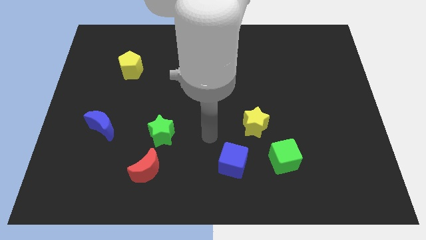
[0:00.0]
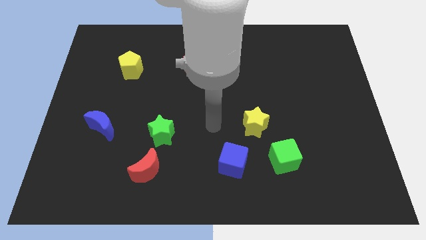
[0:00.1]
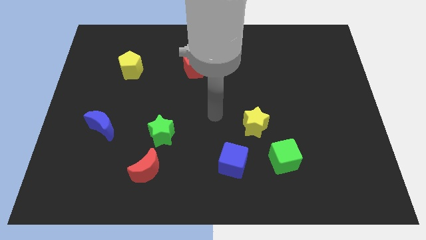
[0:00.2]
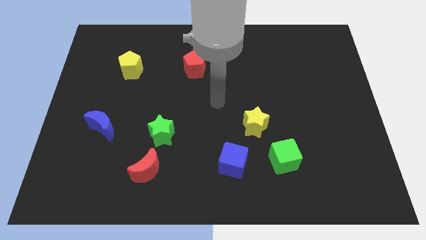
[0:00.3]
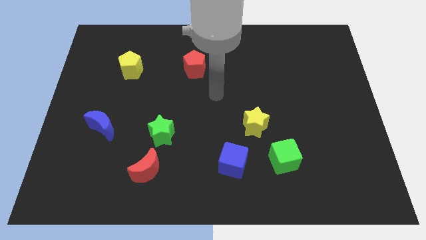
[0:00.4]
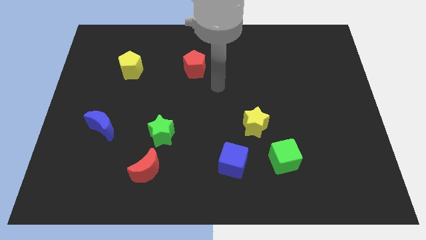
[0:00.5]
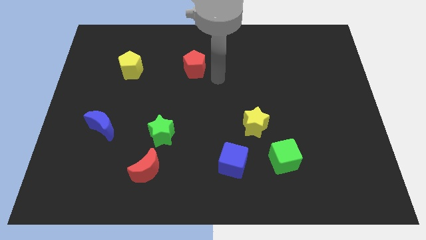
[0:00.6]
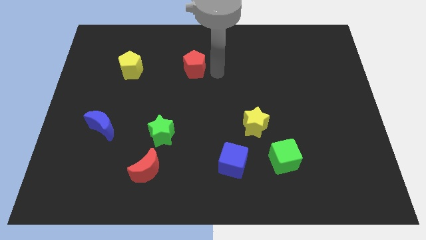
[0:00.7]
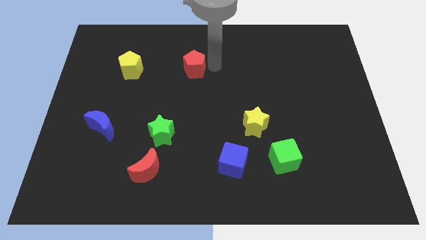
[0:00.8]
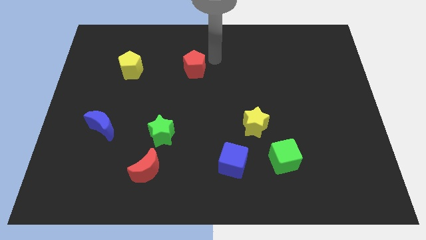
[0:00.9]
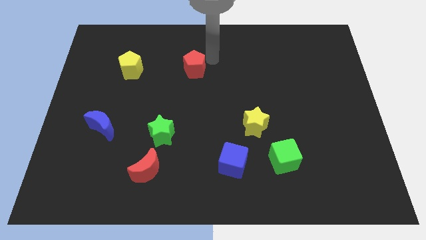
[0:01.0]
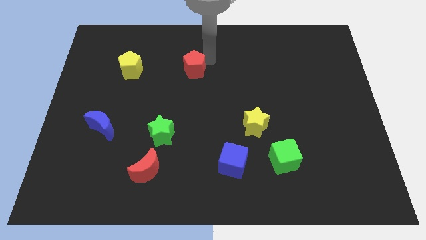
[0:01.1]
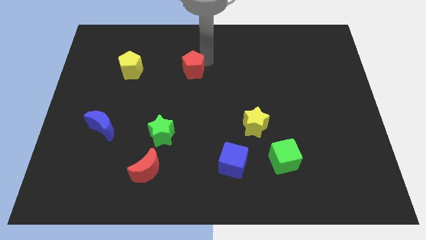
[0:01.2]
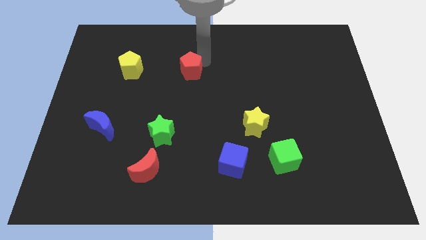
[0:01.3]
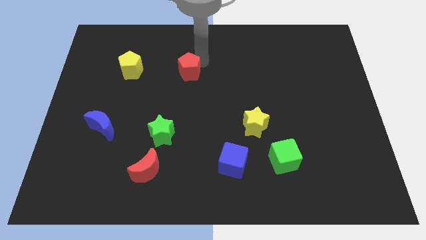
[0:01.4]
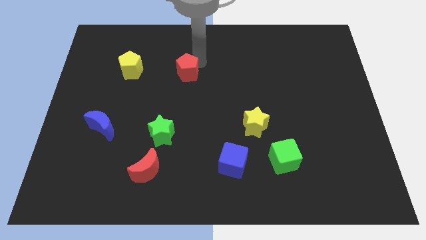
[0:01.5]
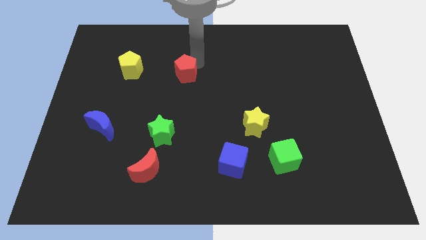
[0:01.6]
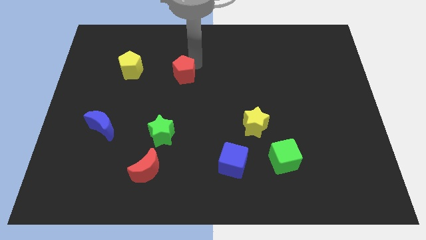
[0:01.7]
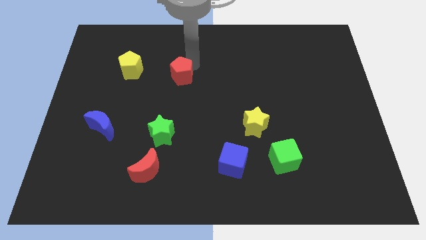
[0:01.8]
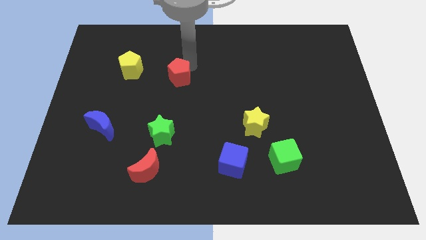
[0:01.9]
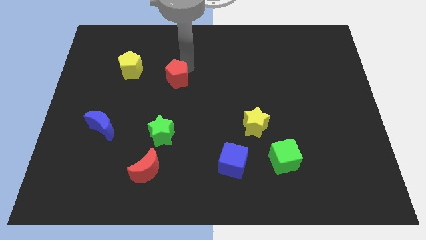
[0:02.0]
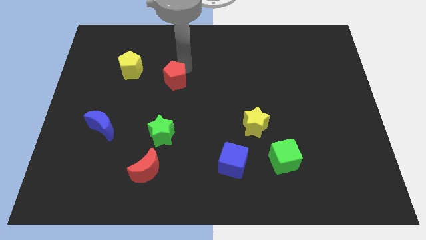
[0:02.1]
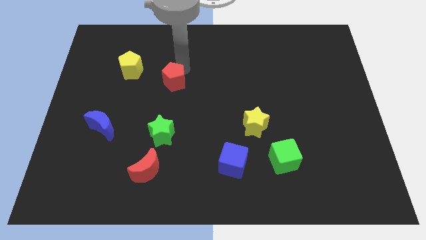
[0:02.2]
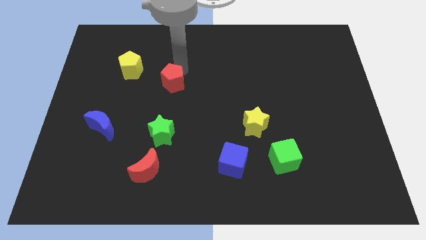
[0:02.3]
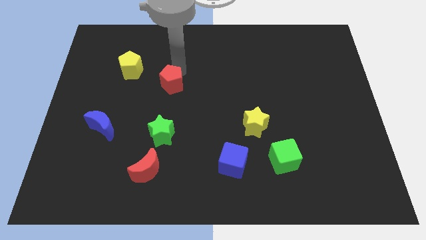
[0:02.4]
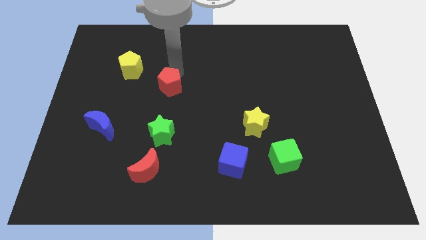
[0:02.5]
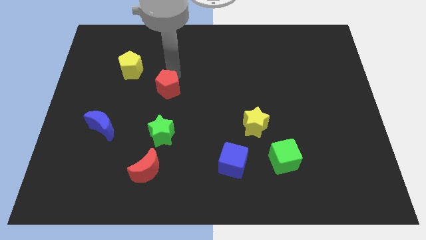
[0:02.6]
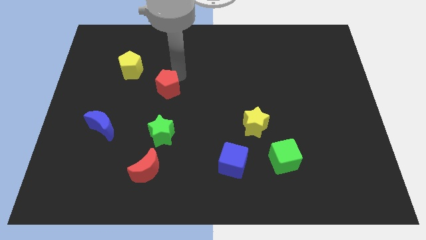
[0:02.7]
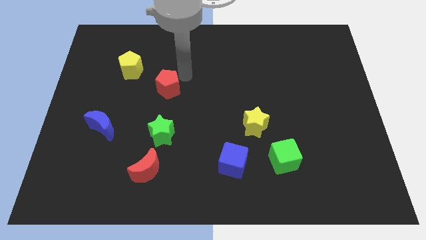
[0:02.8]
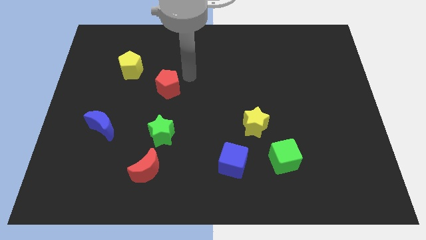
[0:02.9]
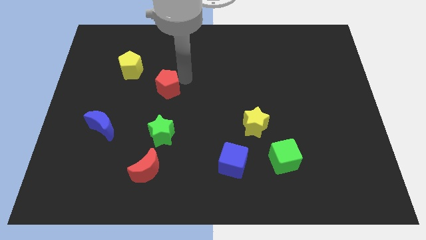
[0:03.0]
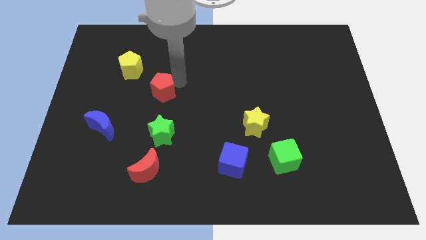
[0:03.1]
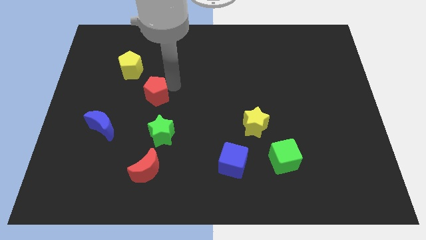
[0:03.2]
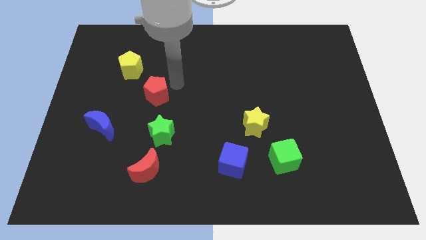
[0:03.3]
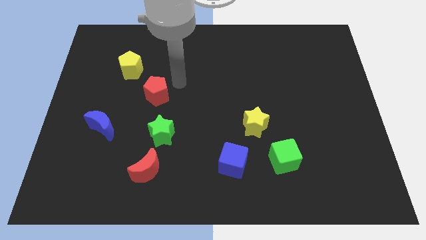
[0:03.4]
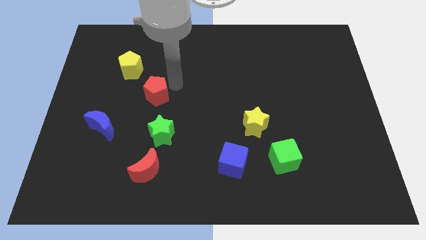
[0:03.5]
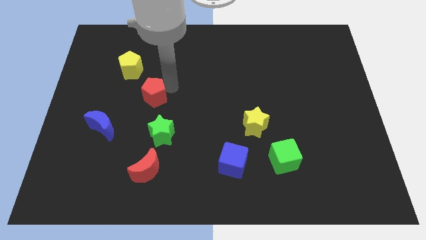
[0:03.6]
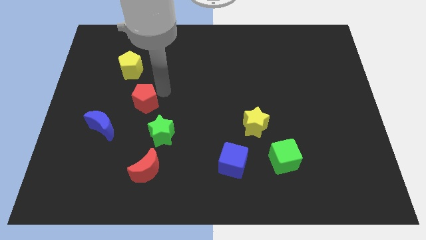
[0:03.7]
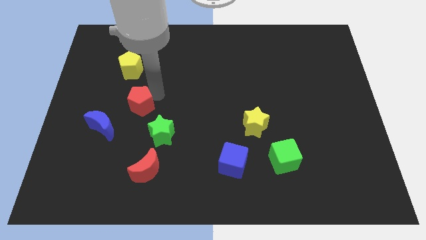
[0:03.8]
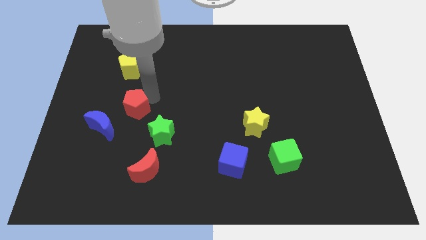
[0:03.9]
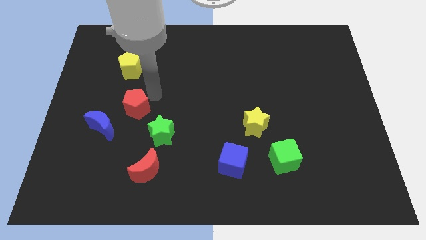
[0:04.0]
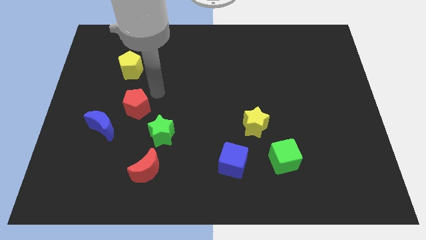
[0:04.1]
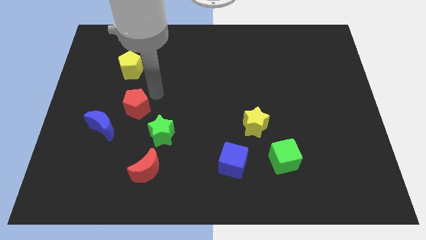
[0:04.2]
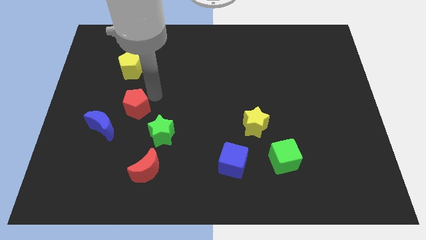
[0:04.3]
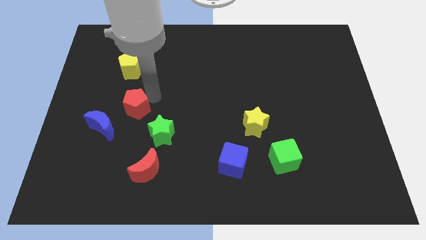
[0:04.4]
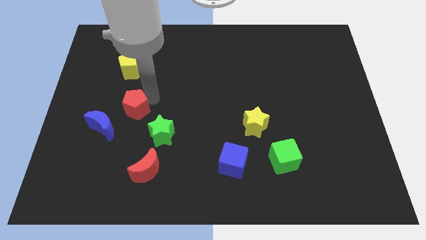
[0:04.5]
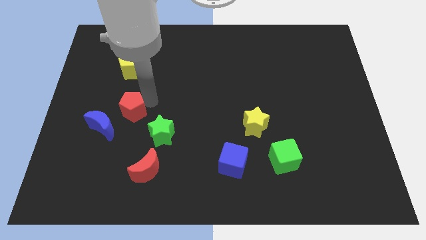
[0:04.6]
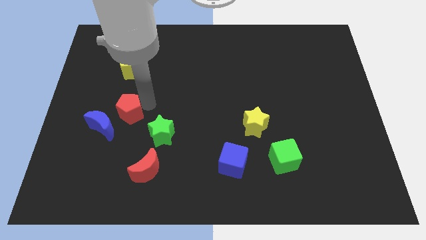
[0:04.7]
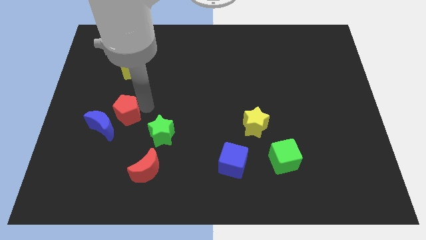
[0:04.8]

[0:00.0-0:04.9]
slide the red pentagon towards the blue moon

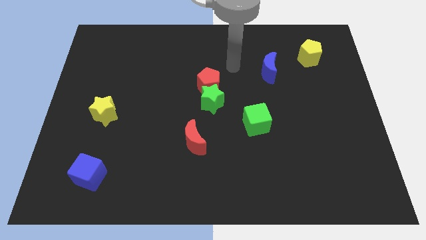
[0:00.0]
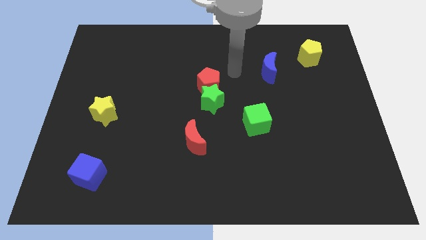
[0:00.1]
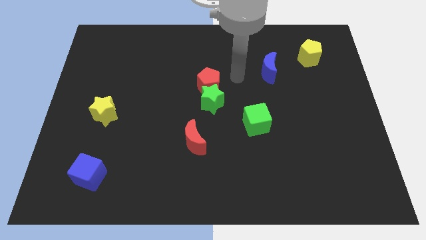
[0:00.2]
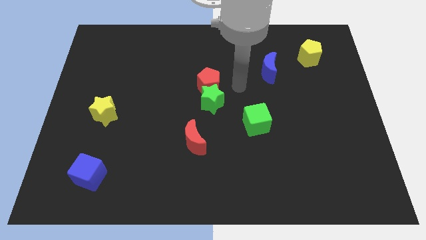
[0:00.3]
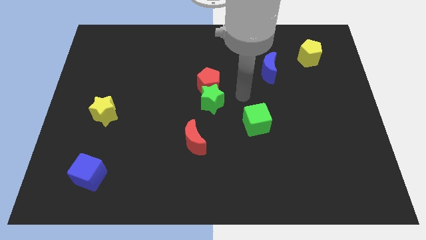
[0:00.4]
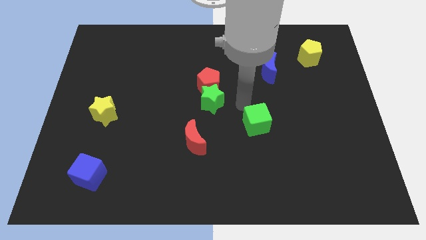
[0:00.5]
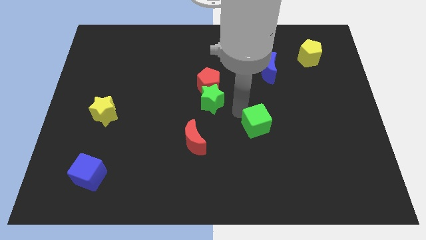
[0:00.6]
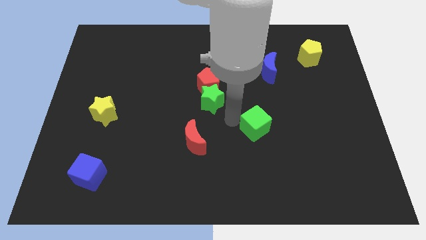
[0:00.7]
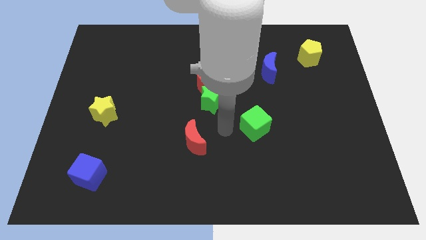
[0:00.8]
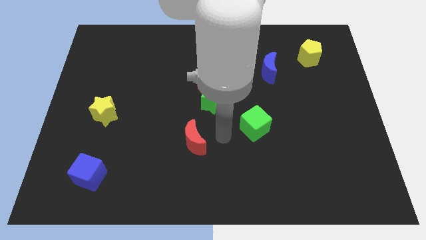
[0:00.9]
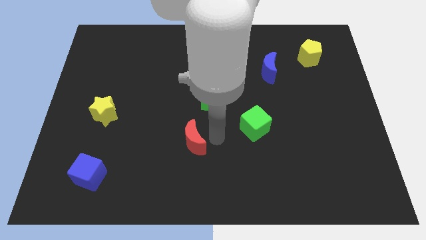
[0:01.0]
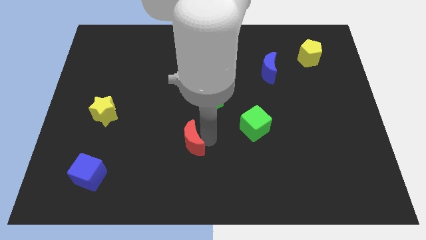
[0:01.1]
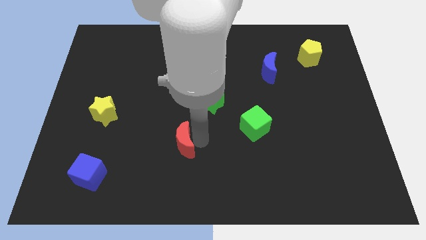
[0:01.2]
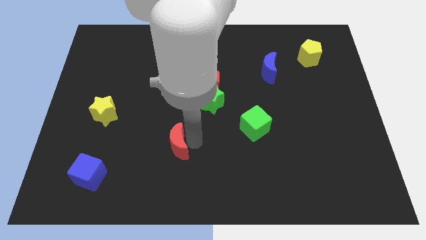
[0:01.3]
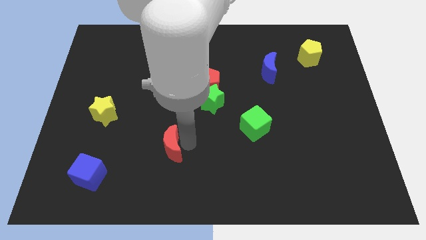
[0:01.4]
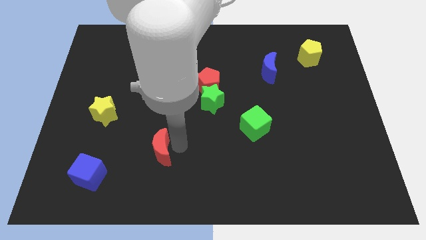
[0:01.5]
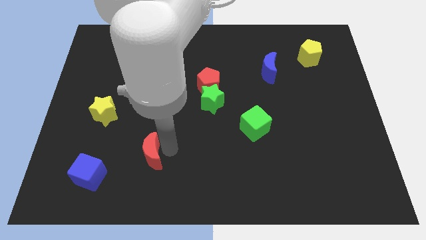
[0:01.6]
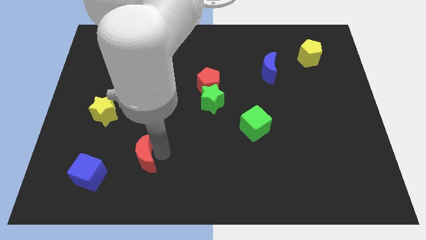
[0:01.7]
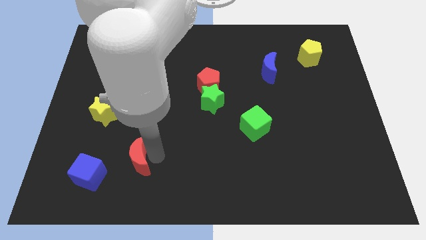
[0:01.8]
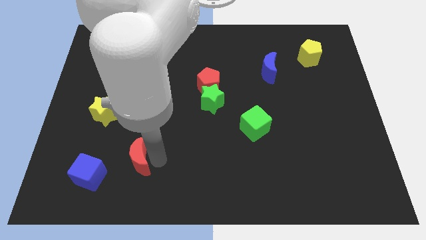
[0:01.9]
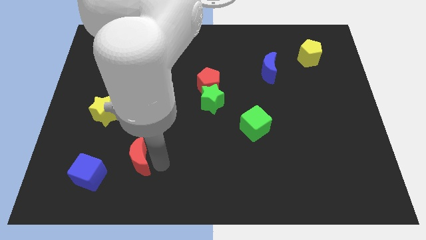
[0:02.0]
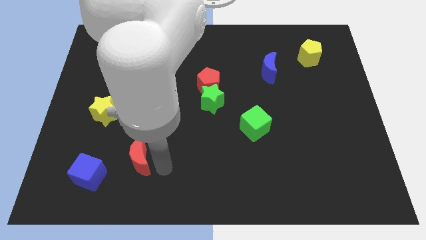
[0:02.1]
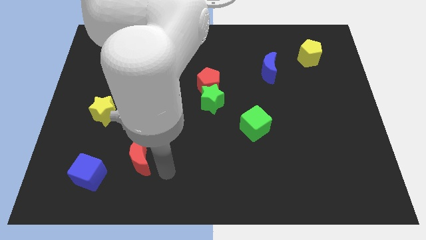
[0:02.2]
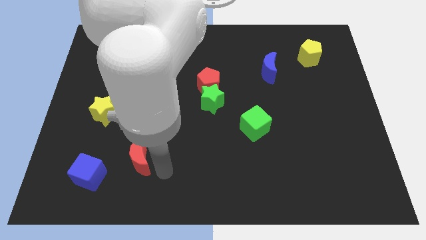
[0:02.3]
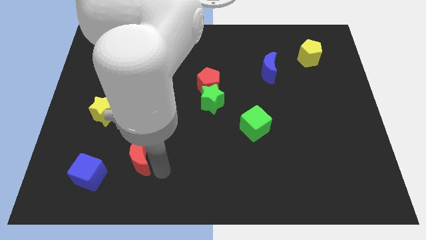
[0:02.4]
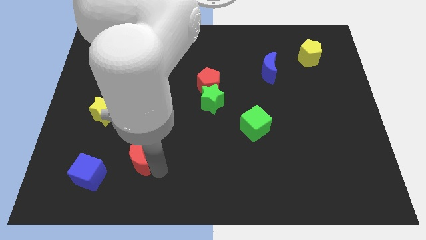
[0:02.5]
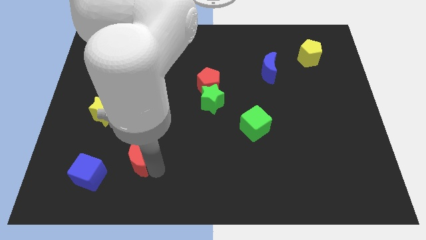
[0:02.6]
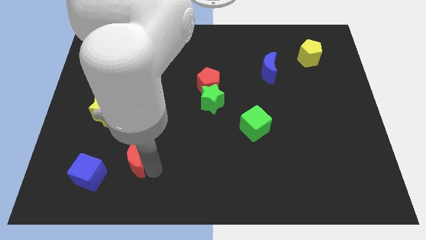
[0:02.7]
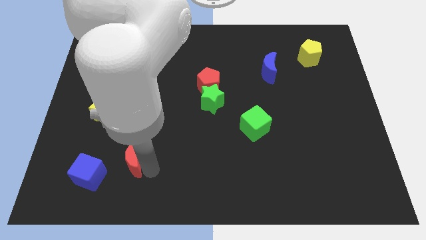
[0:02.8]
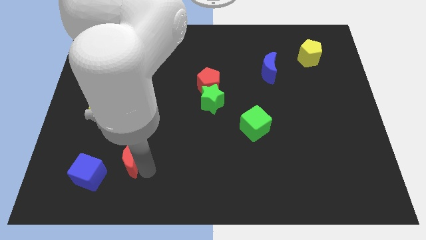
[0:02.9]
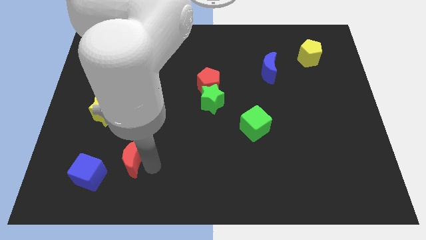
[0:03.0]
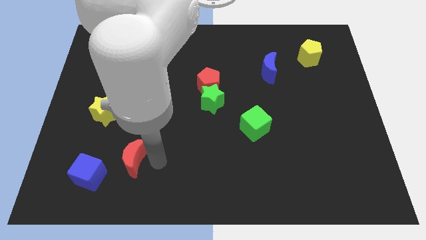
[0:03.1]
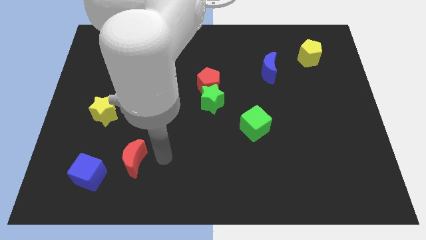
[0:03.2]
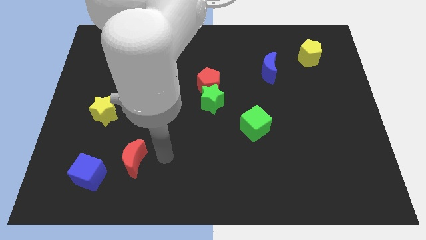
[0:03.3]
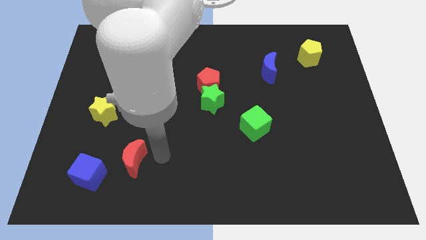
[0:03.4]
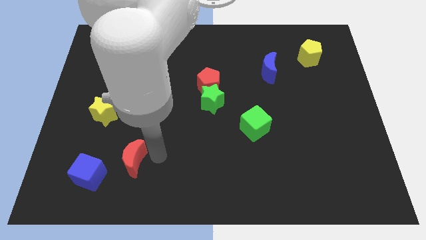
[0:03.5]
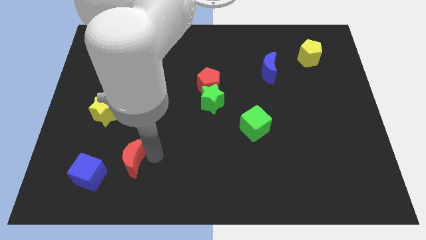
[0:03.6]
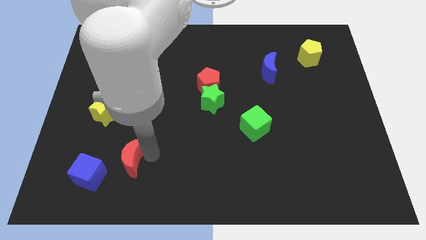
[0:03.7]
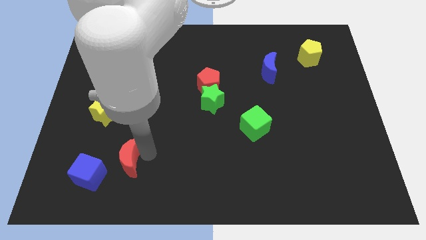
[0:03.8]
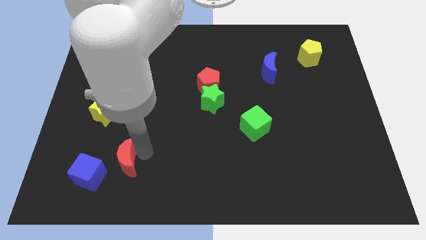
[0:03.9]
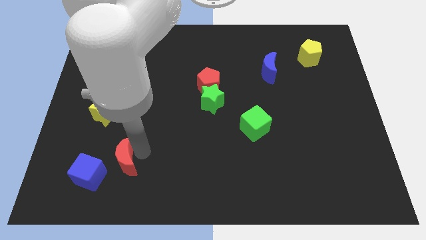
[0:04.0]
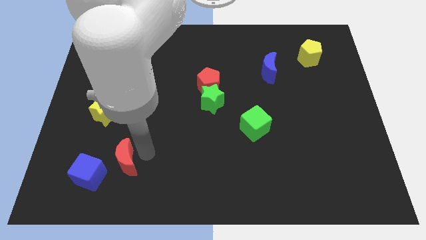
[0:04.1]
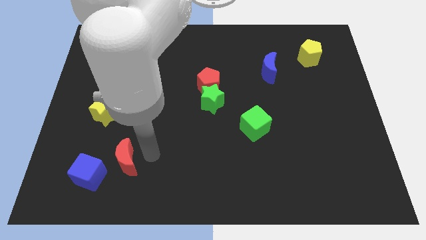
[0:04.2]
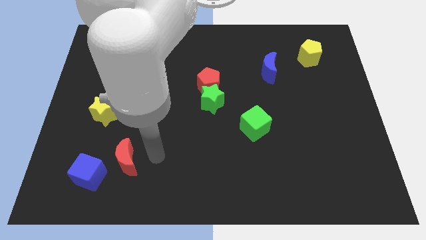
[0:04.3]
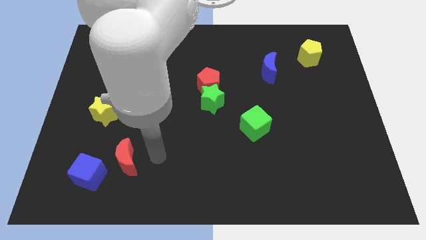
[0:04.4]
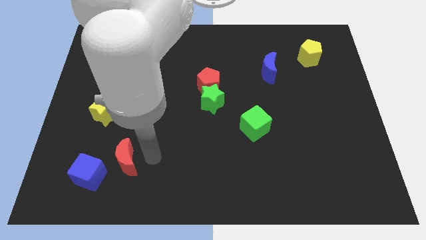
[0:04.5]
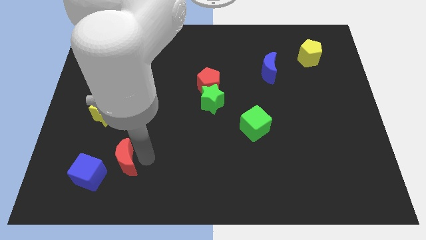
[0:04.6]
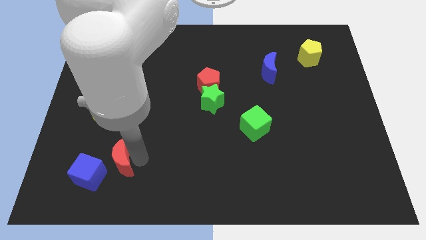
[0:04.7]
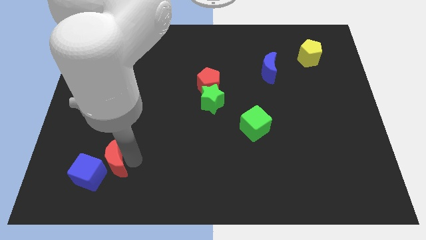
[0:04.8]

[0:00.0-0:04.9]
put the red moon next to the blue cube
